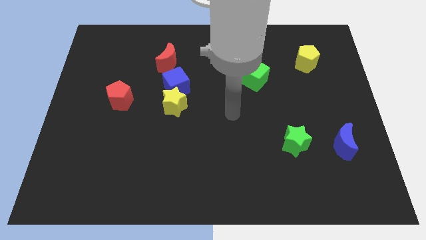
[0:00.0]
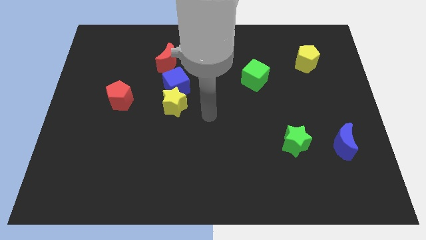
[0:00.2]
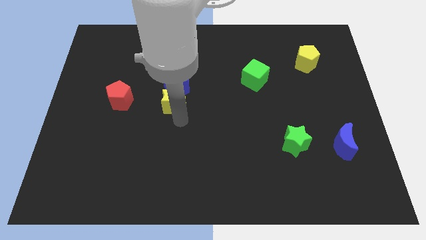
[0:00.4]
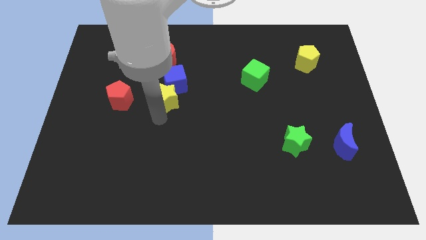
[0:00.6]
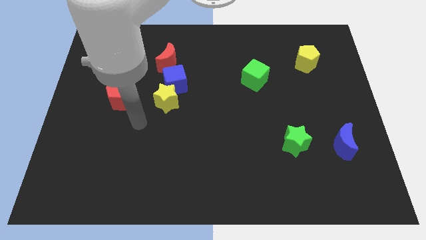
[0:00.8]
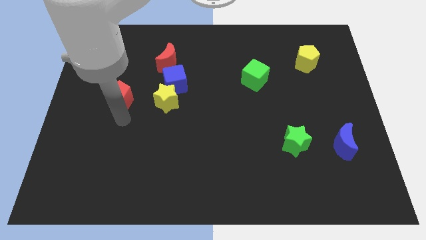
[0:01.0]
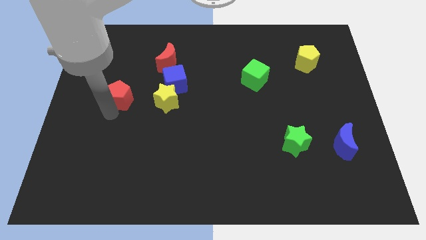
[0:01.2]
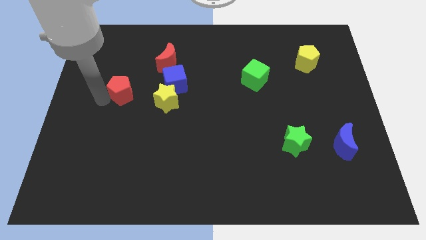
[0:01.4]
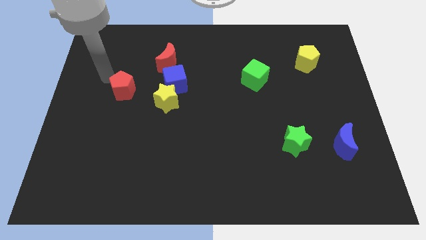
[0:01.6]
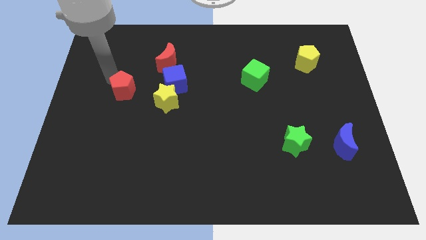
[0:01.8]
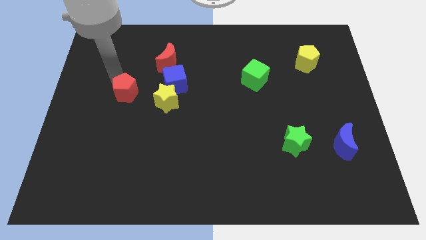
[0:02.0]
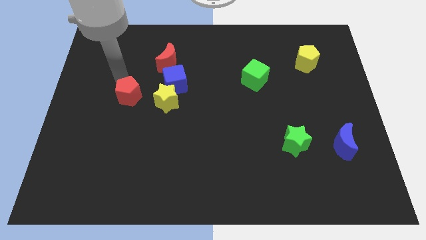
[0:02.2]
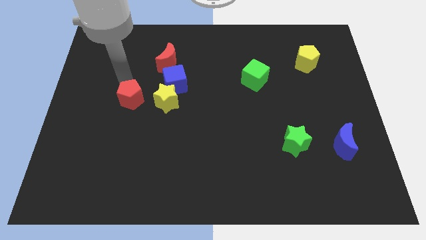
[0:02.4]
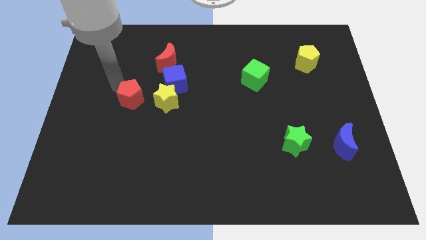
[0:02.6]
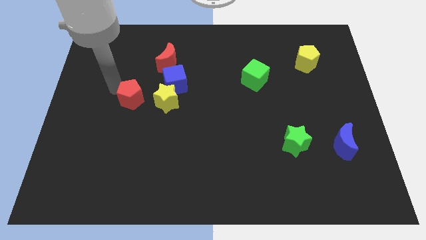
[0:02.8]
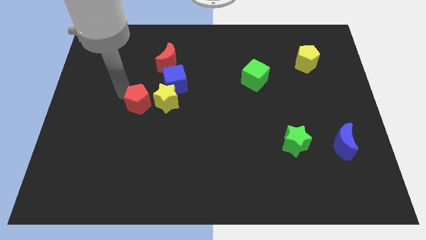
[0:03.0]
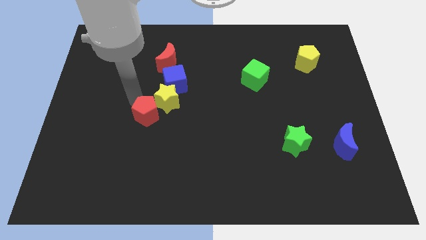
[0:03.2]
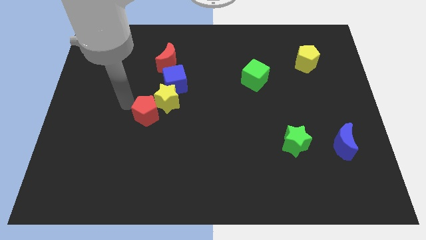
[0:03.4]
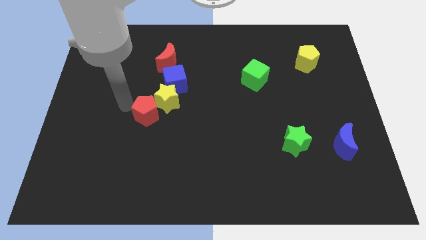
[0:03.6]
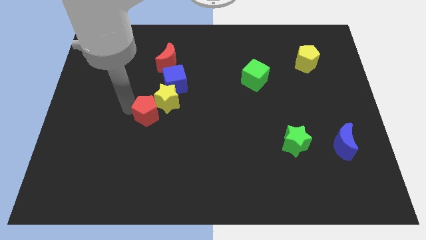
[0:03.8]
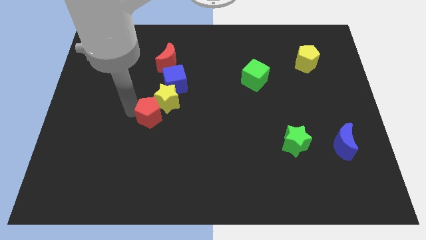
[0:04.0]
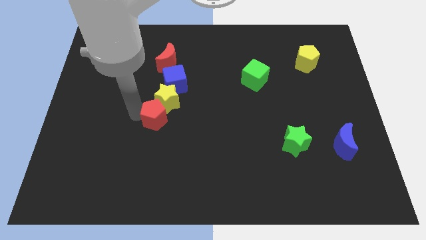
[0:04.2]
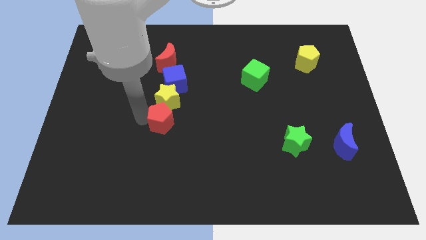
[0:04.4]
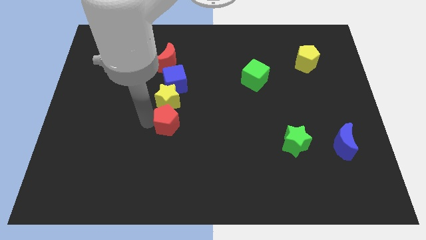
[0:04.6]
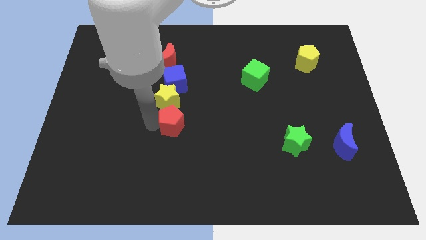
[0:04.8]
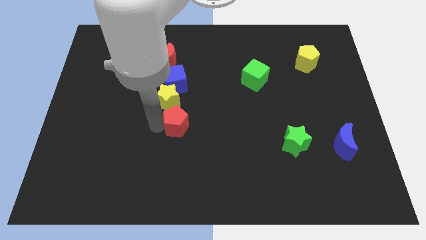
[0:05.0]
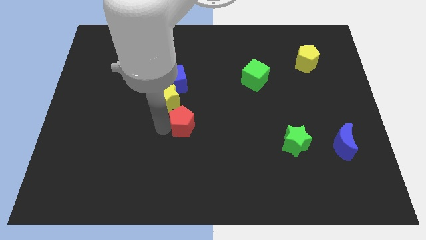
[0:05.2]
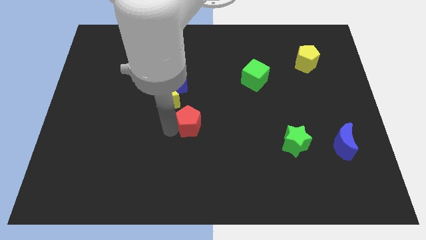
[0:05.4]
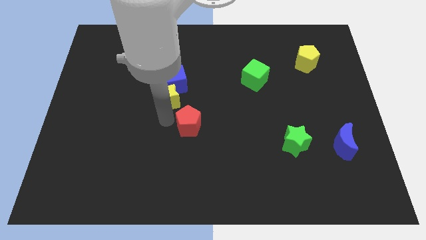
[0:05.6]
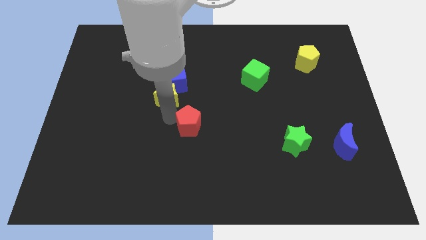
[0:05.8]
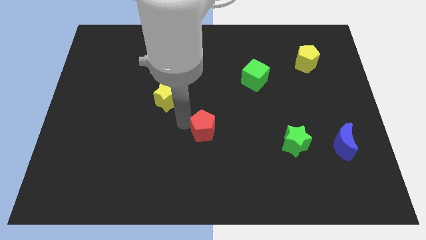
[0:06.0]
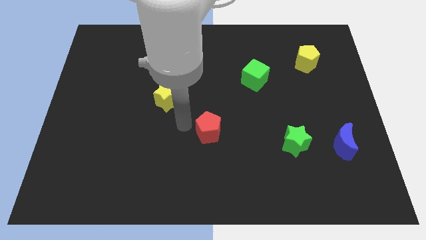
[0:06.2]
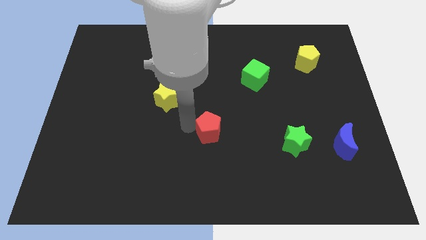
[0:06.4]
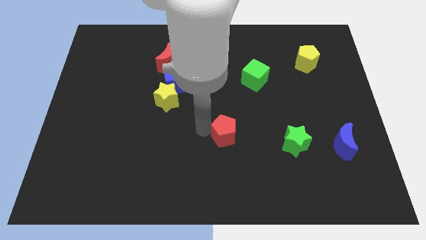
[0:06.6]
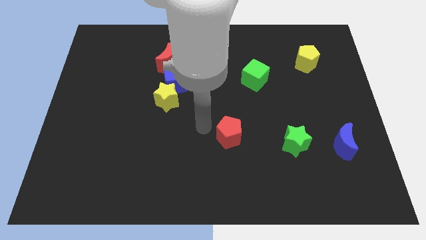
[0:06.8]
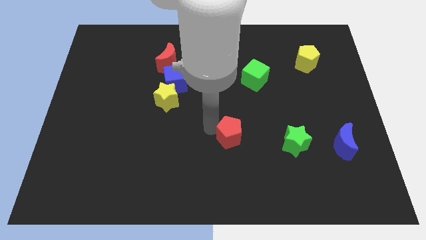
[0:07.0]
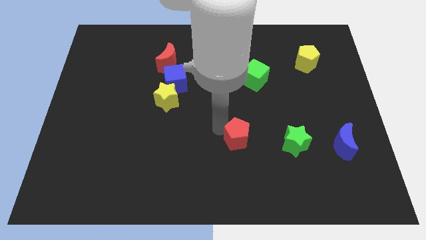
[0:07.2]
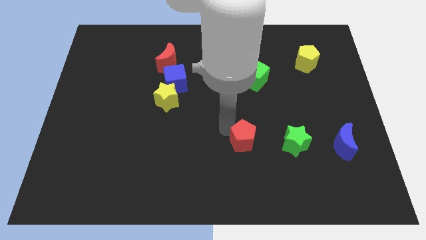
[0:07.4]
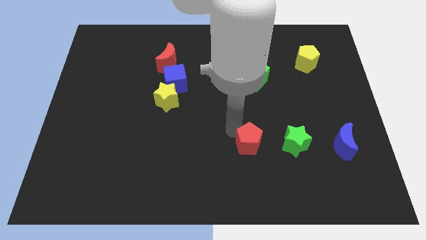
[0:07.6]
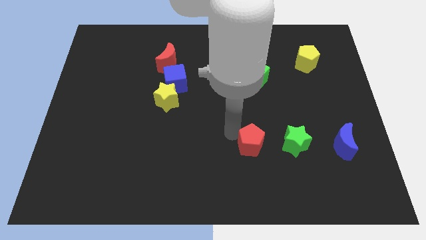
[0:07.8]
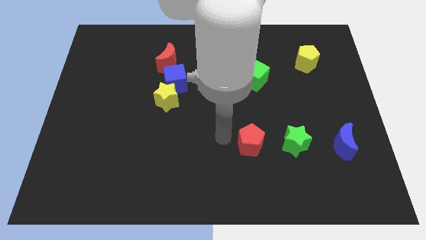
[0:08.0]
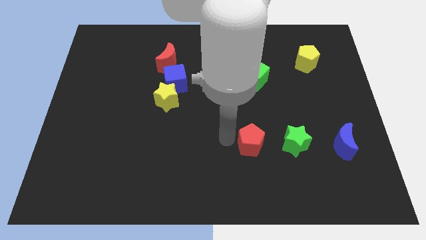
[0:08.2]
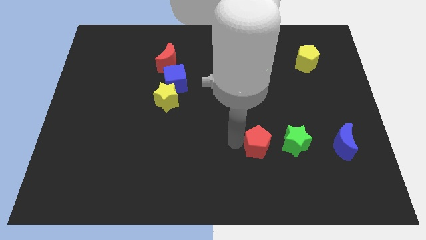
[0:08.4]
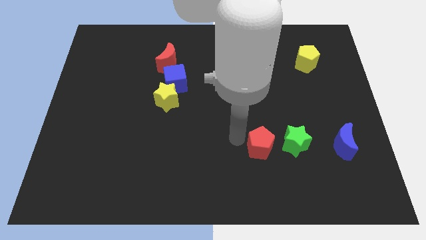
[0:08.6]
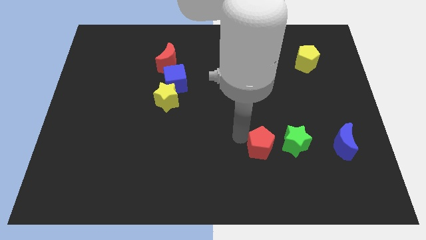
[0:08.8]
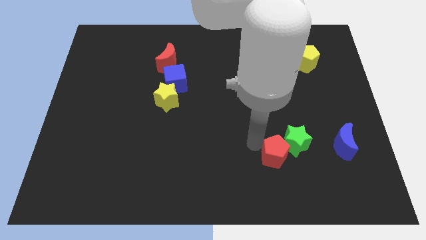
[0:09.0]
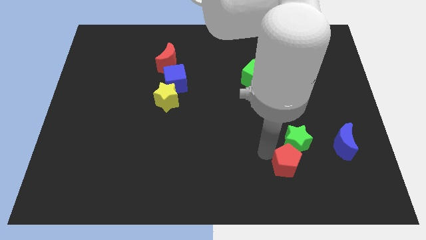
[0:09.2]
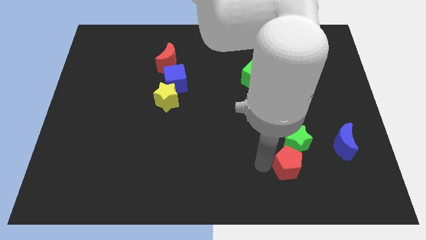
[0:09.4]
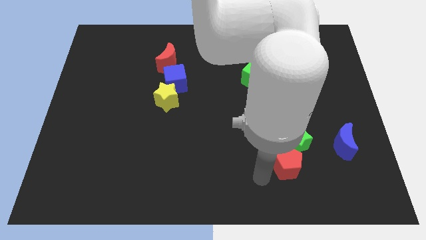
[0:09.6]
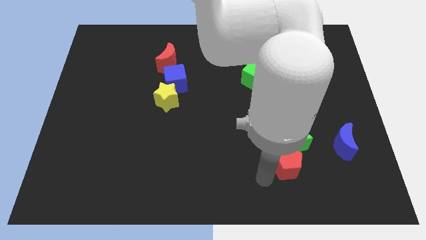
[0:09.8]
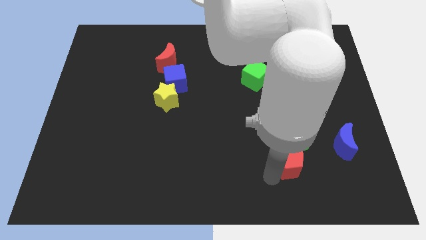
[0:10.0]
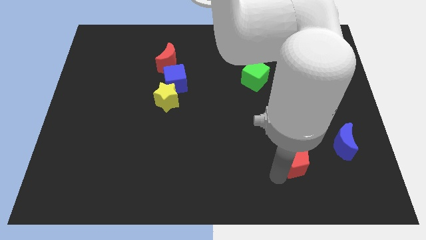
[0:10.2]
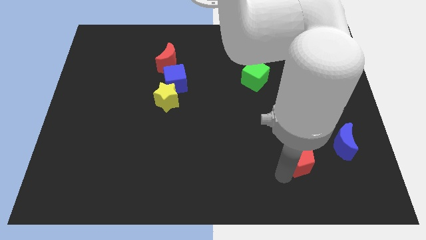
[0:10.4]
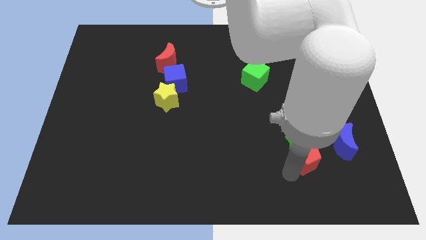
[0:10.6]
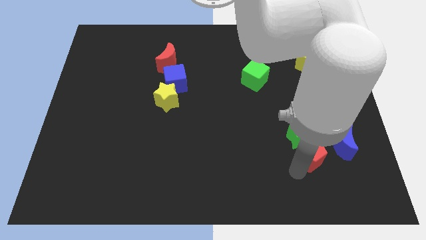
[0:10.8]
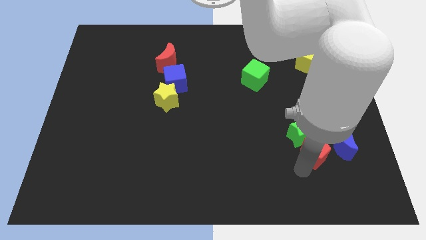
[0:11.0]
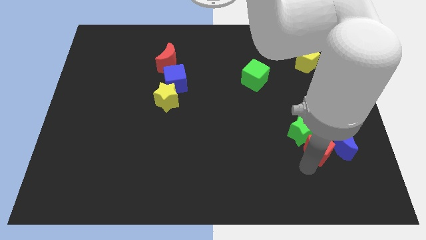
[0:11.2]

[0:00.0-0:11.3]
move the red pentagon towards the blue moon

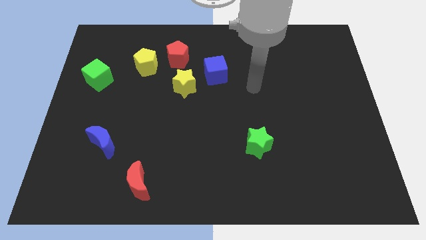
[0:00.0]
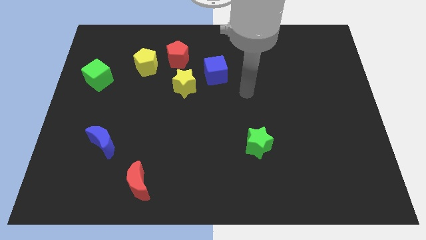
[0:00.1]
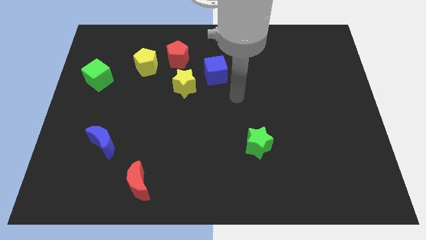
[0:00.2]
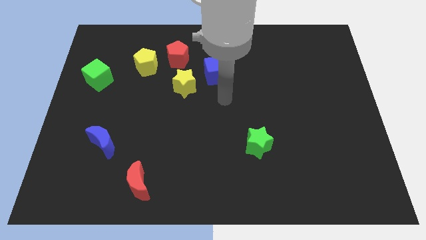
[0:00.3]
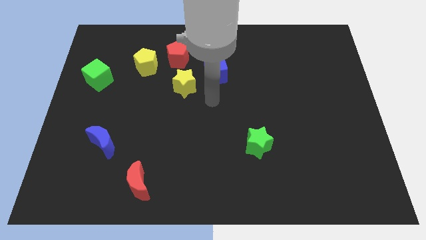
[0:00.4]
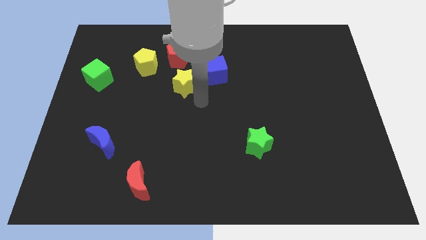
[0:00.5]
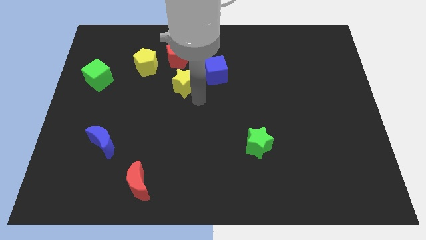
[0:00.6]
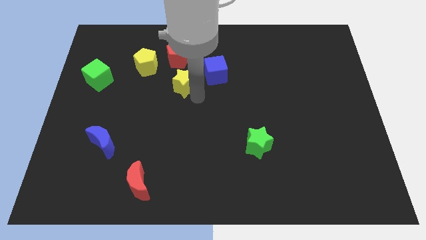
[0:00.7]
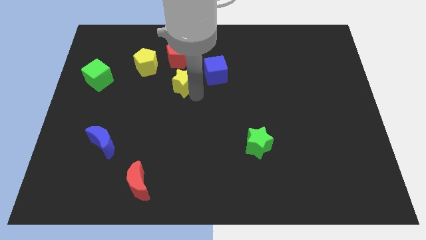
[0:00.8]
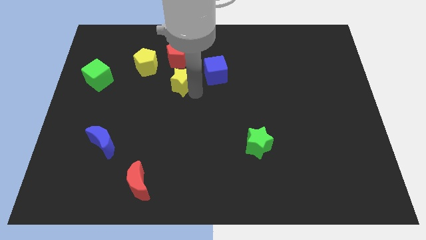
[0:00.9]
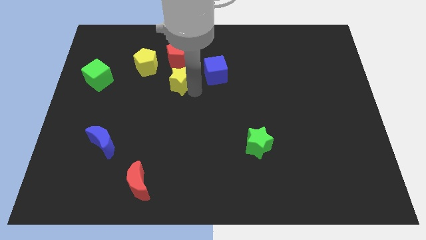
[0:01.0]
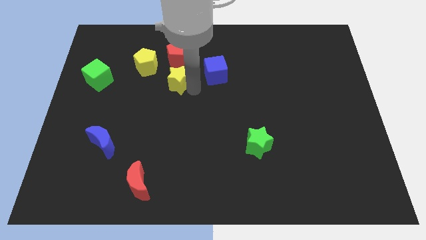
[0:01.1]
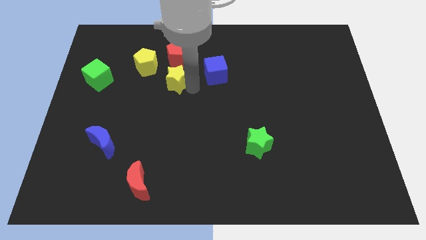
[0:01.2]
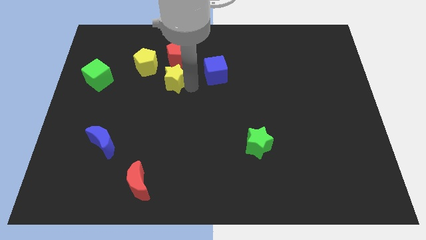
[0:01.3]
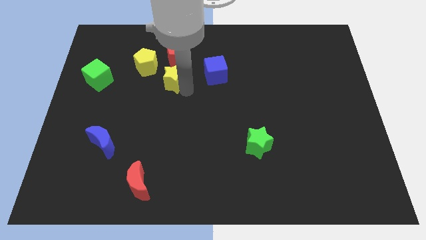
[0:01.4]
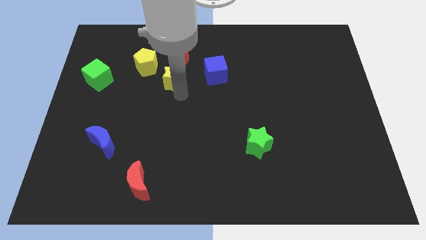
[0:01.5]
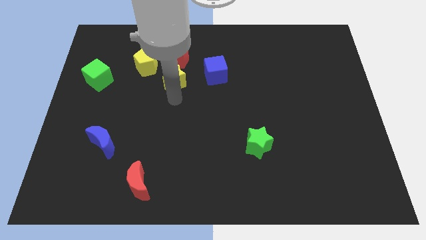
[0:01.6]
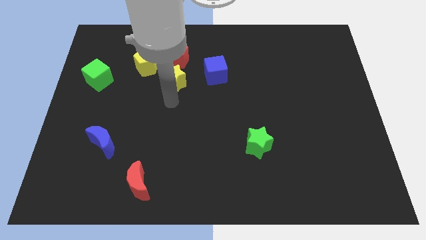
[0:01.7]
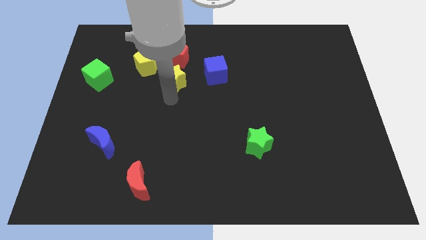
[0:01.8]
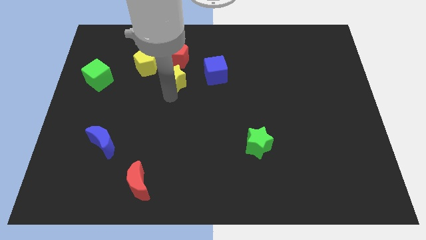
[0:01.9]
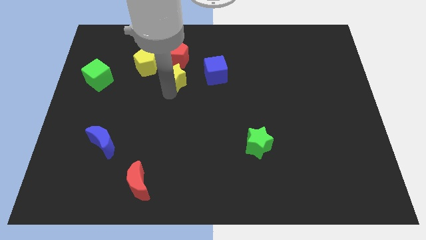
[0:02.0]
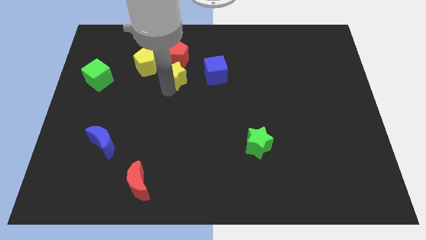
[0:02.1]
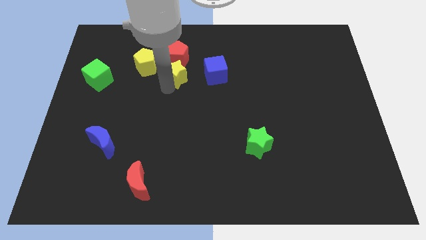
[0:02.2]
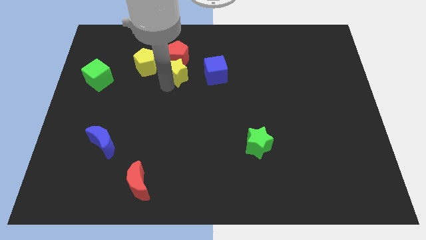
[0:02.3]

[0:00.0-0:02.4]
put the yellow star next to the red pentagon
